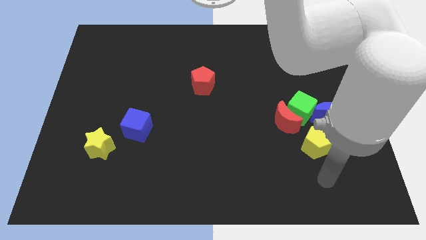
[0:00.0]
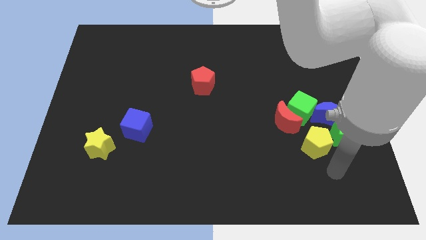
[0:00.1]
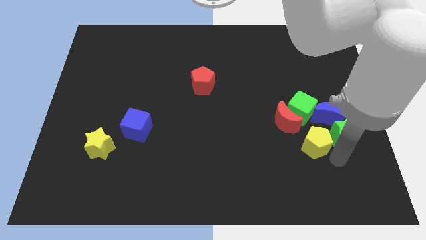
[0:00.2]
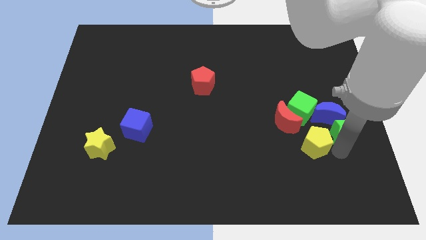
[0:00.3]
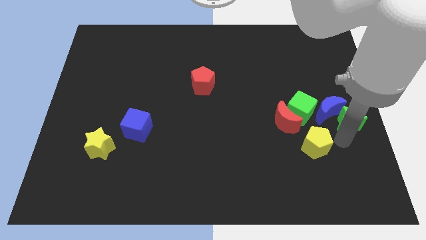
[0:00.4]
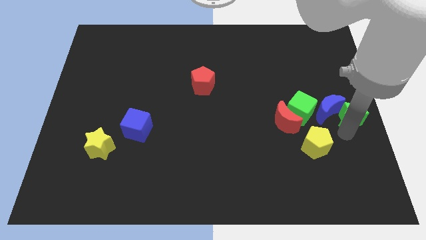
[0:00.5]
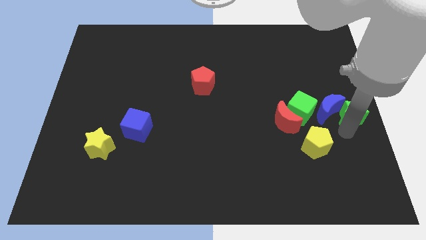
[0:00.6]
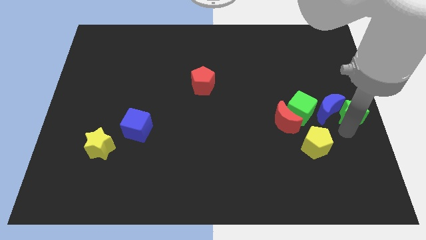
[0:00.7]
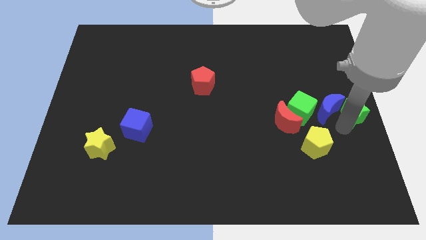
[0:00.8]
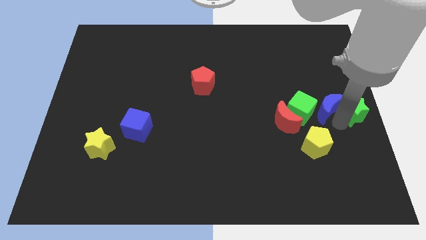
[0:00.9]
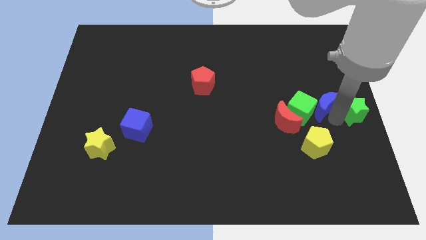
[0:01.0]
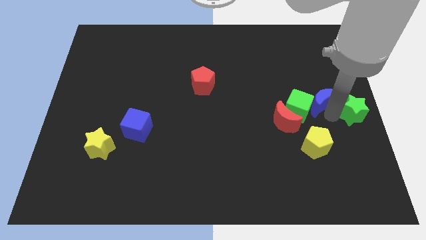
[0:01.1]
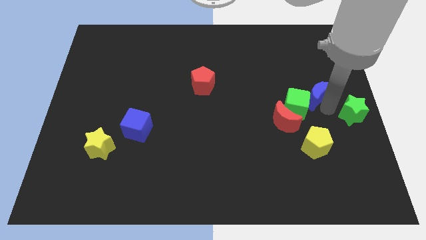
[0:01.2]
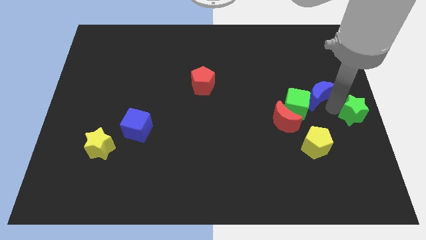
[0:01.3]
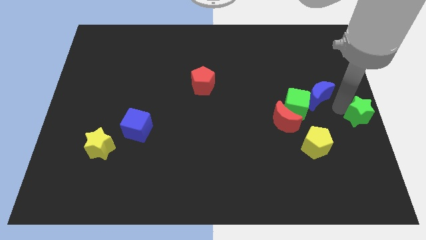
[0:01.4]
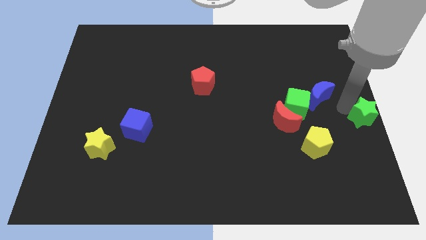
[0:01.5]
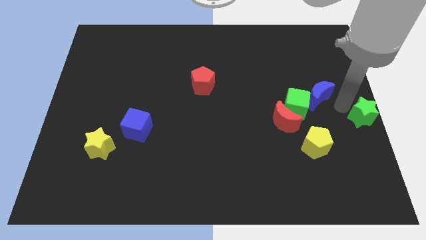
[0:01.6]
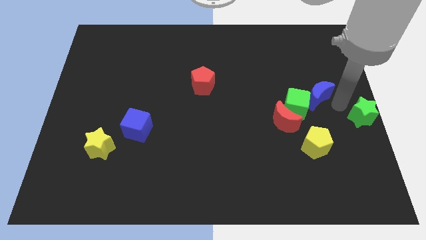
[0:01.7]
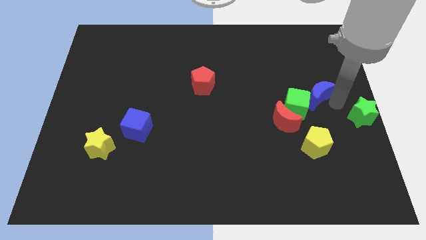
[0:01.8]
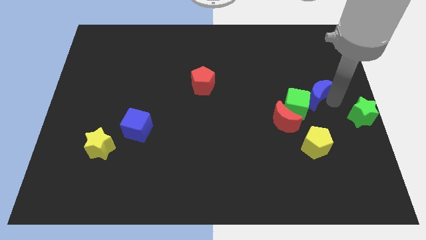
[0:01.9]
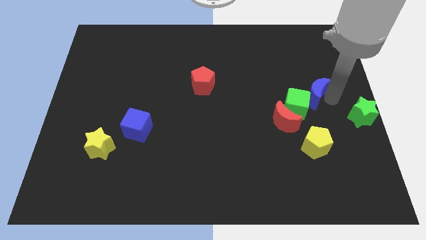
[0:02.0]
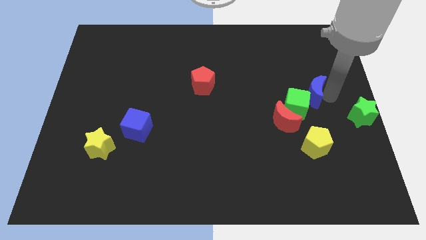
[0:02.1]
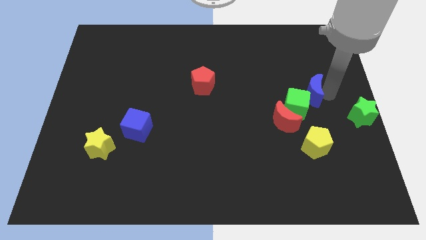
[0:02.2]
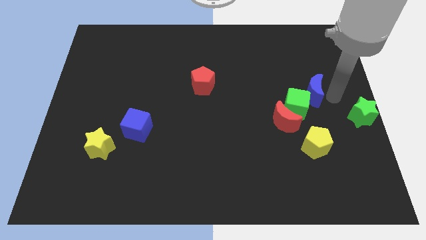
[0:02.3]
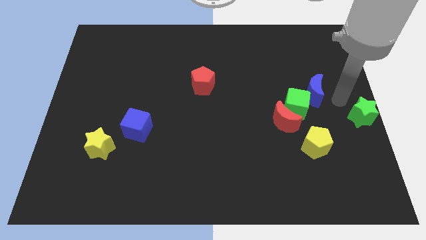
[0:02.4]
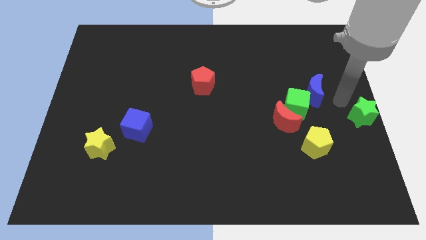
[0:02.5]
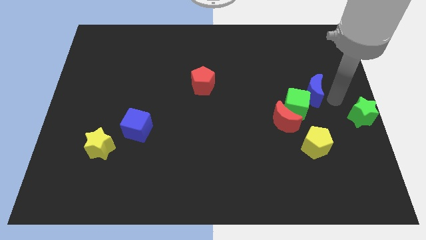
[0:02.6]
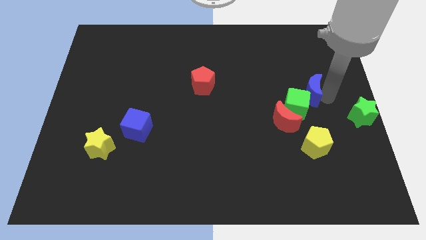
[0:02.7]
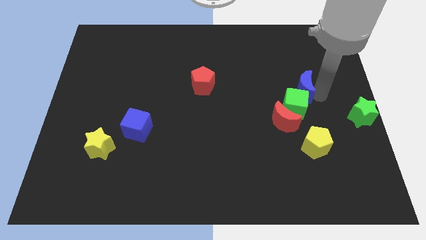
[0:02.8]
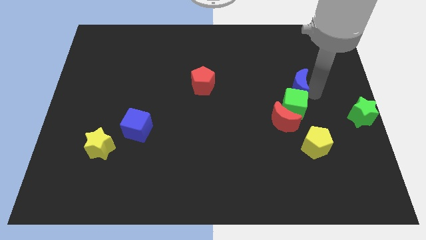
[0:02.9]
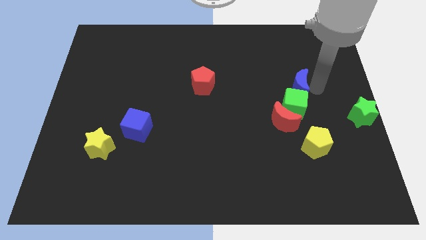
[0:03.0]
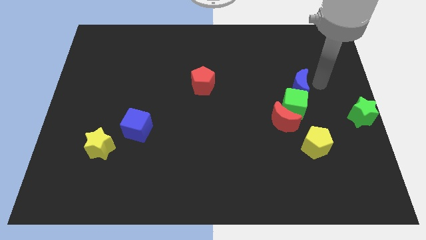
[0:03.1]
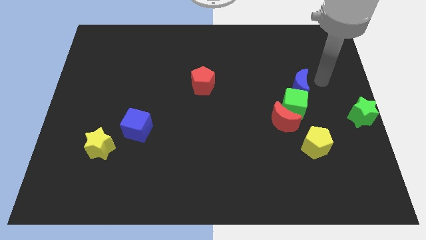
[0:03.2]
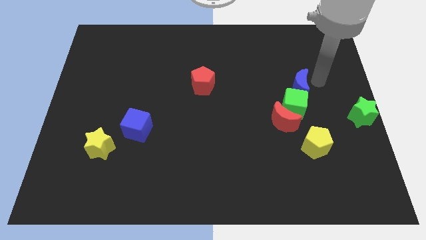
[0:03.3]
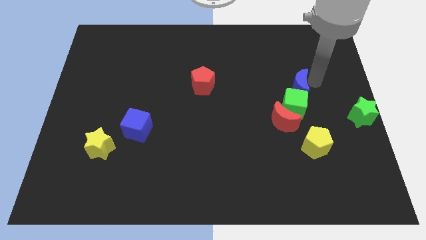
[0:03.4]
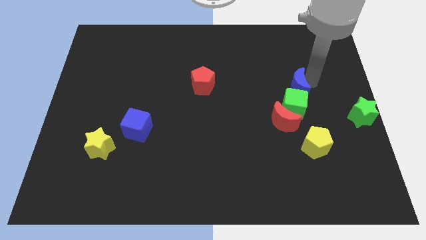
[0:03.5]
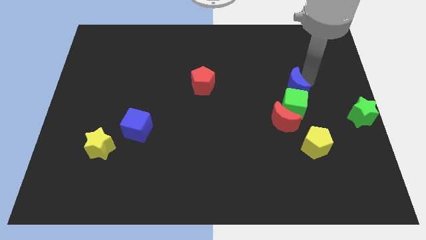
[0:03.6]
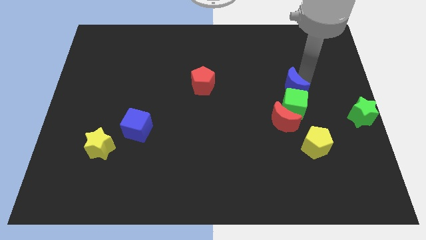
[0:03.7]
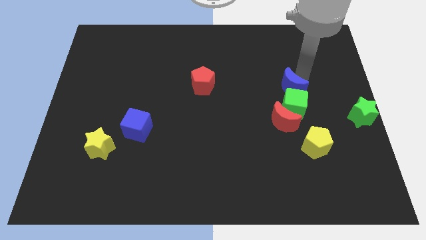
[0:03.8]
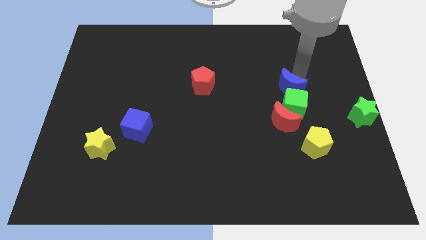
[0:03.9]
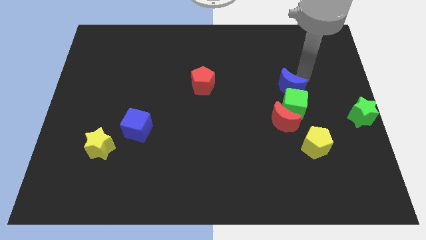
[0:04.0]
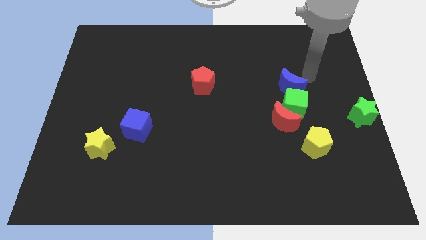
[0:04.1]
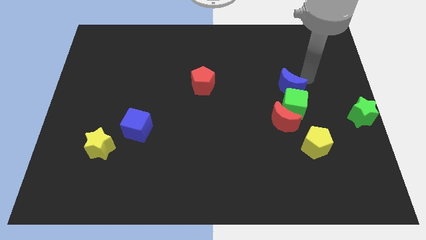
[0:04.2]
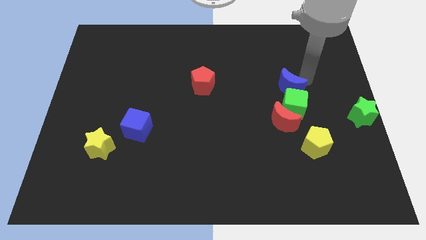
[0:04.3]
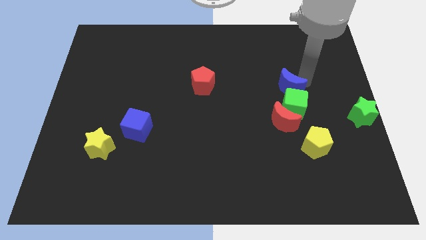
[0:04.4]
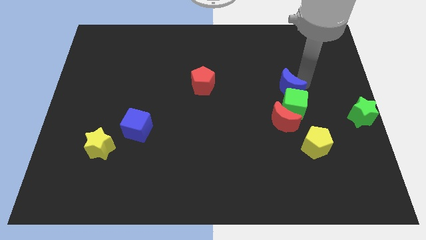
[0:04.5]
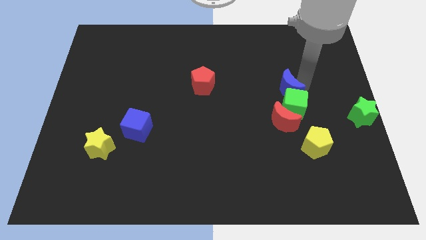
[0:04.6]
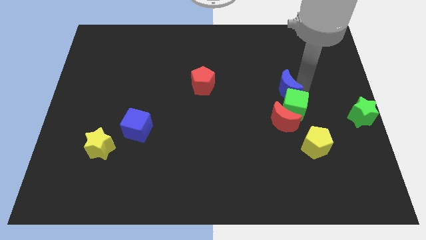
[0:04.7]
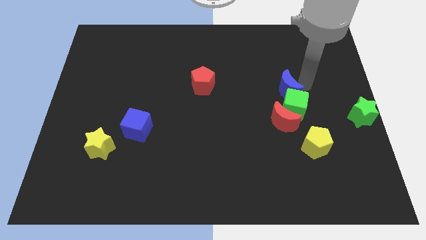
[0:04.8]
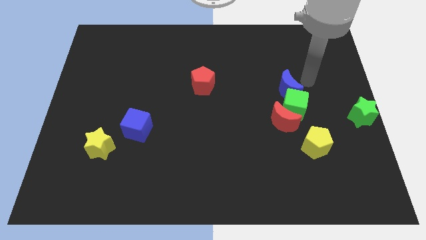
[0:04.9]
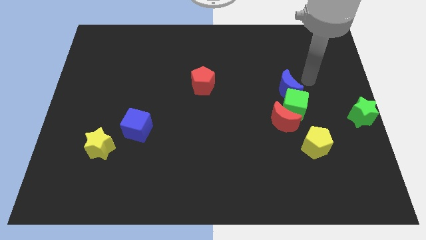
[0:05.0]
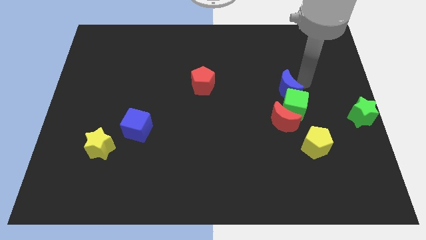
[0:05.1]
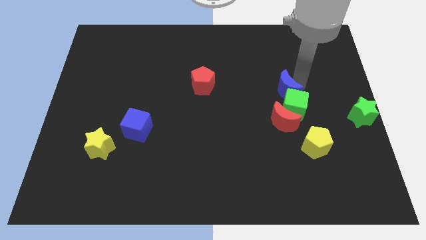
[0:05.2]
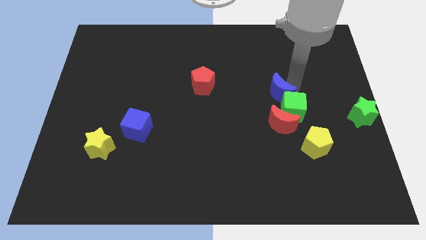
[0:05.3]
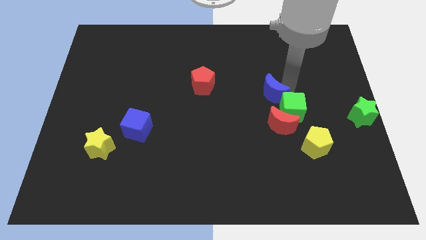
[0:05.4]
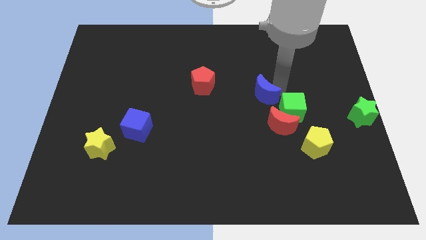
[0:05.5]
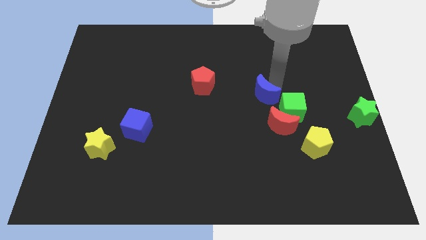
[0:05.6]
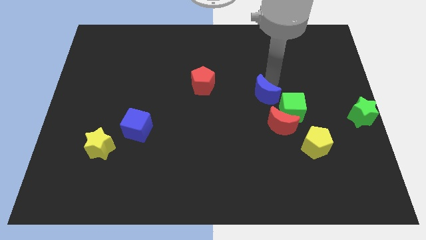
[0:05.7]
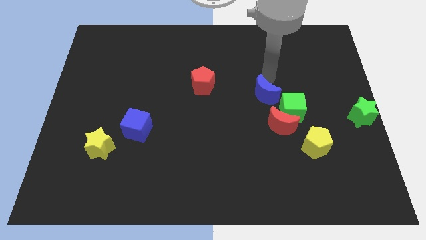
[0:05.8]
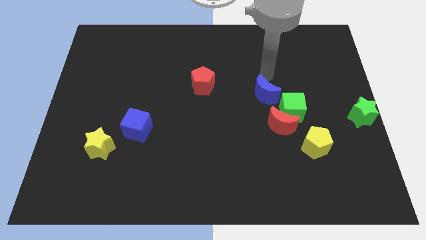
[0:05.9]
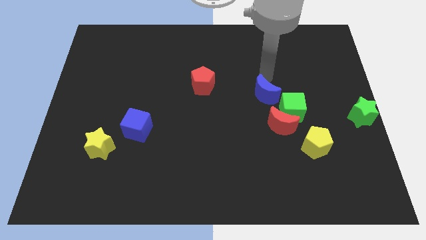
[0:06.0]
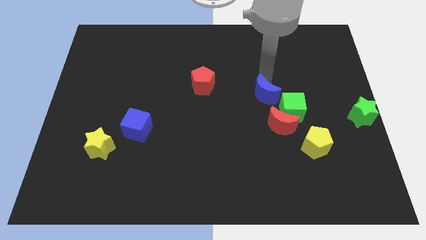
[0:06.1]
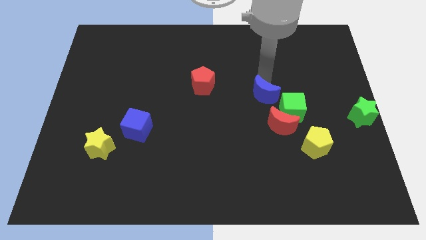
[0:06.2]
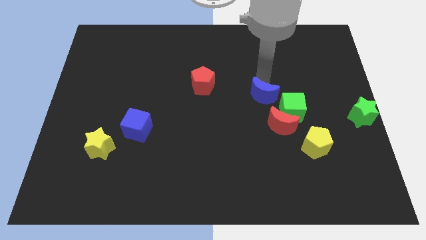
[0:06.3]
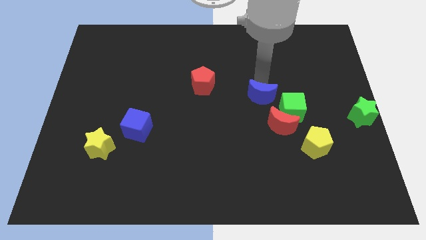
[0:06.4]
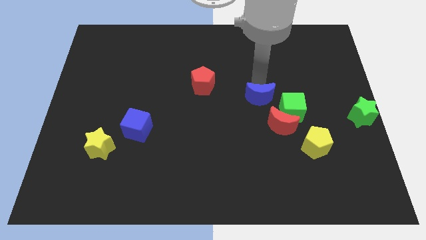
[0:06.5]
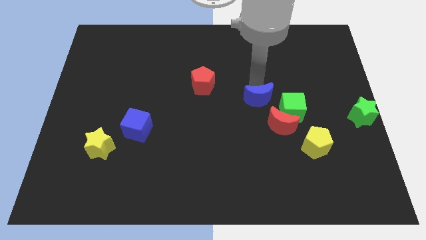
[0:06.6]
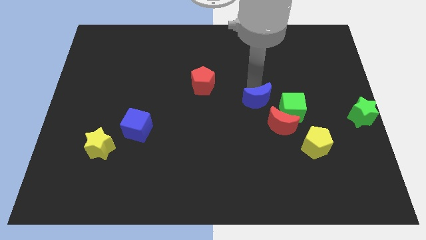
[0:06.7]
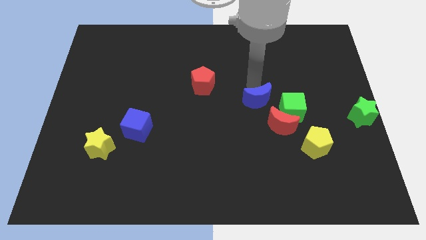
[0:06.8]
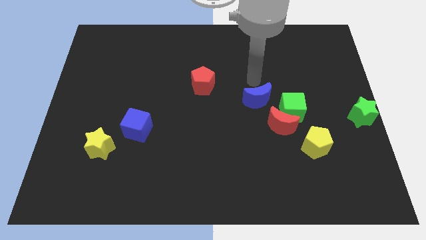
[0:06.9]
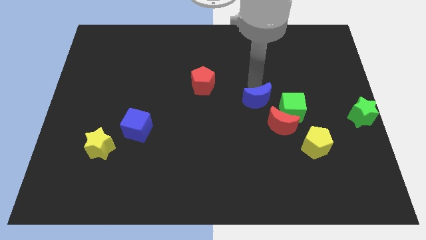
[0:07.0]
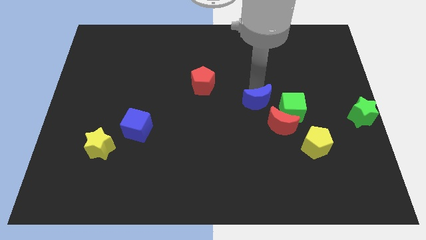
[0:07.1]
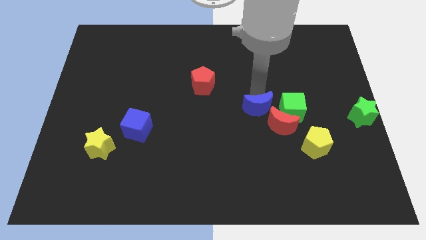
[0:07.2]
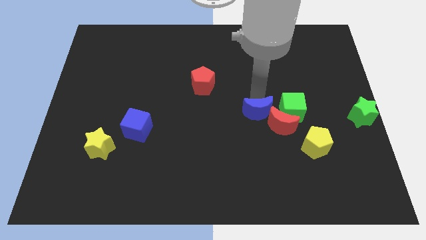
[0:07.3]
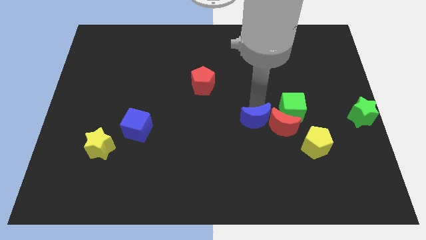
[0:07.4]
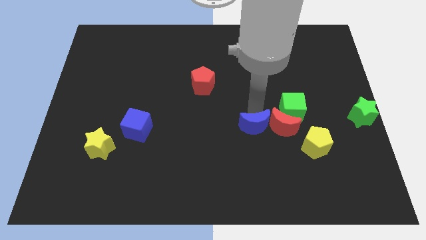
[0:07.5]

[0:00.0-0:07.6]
slightly push the blue moon down and then left

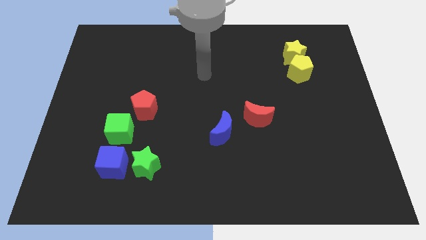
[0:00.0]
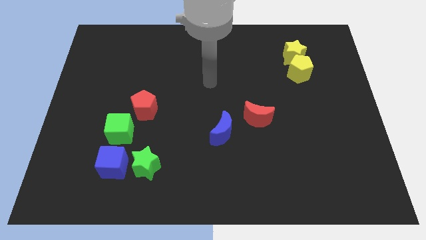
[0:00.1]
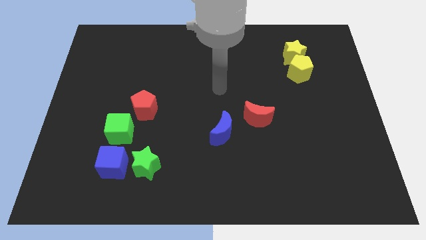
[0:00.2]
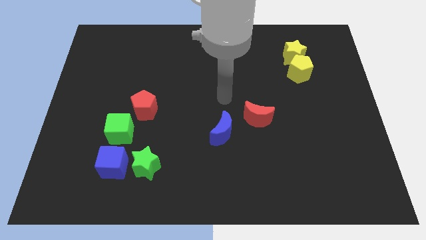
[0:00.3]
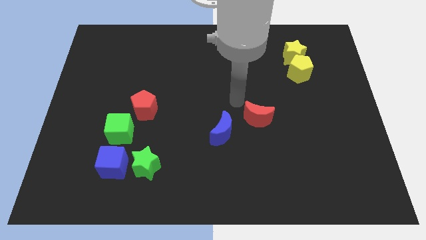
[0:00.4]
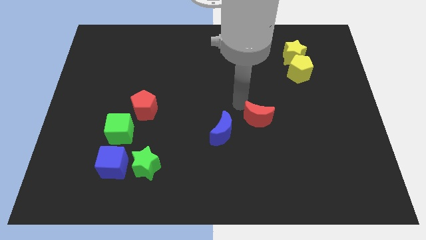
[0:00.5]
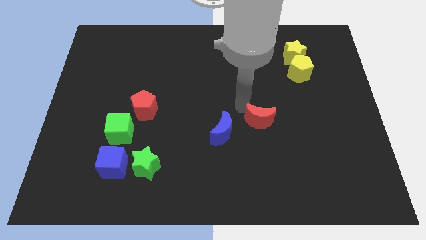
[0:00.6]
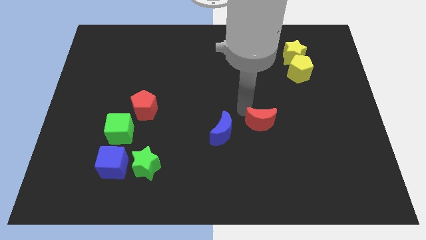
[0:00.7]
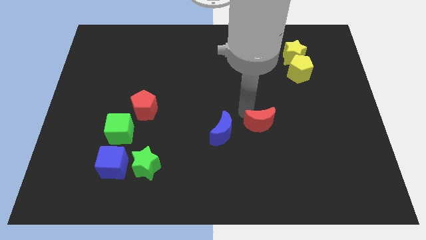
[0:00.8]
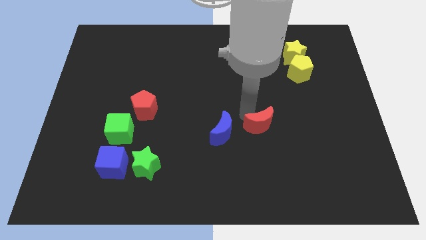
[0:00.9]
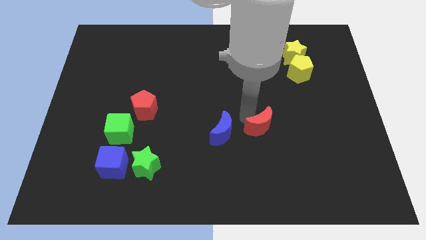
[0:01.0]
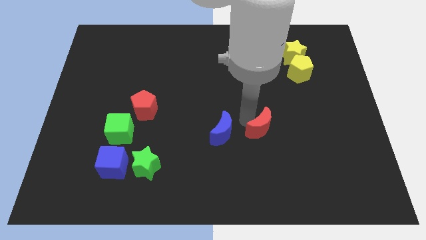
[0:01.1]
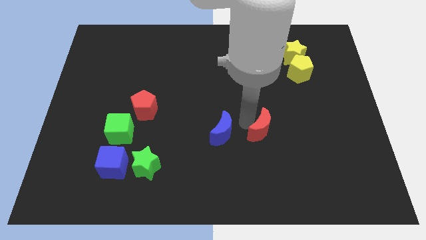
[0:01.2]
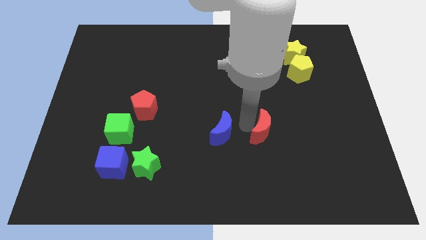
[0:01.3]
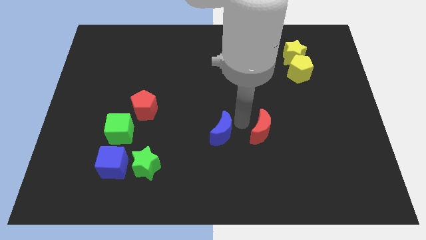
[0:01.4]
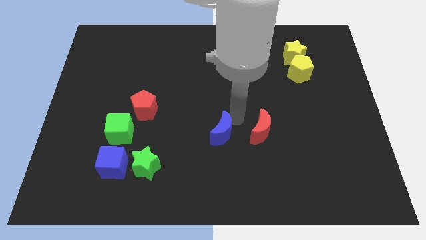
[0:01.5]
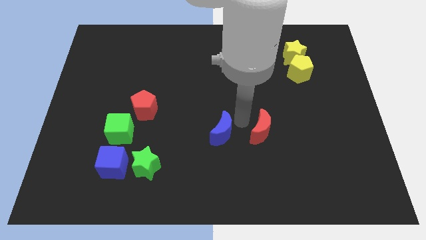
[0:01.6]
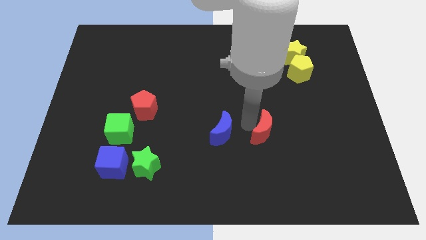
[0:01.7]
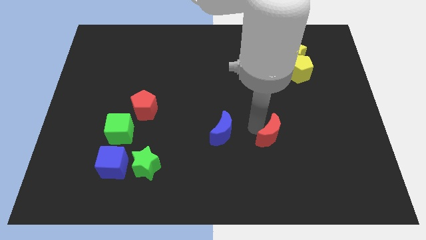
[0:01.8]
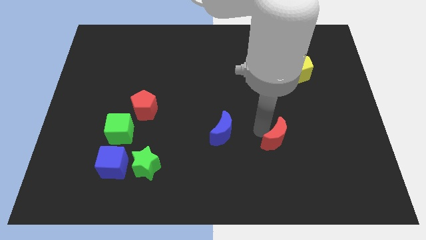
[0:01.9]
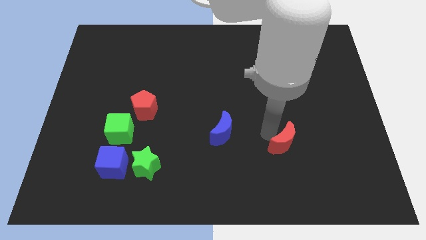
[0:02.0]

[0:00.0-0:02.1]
move the red moon a little diagonally downwards and right
